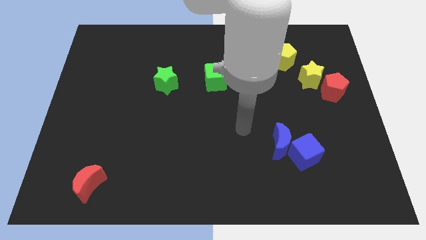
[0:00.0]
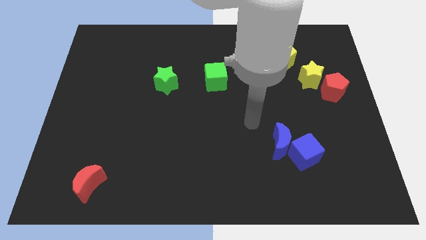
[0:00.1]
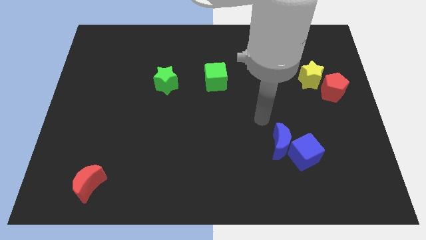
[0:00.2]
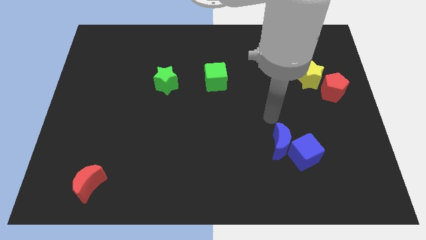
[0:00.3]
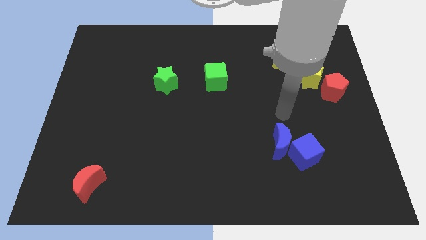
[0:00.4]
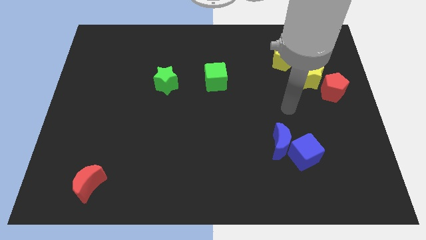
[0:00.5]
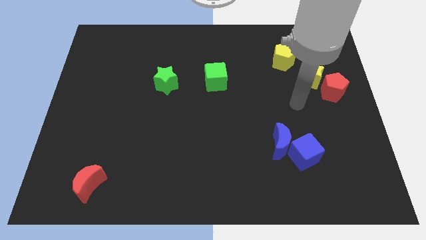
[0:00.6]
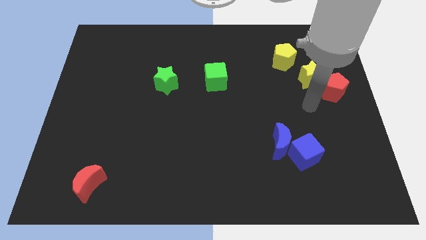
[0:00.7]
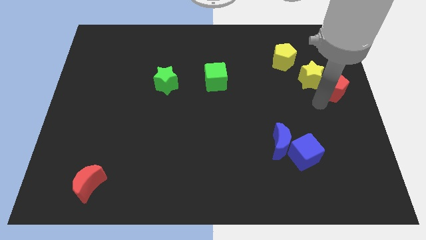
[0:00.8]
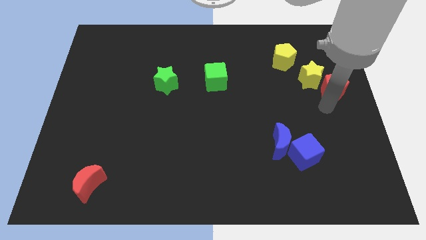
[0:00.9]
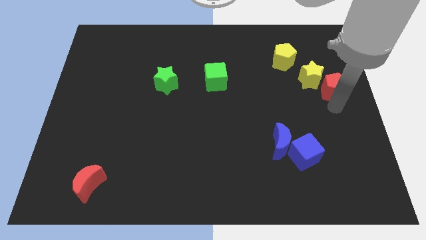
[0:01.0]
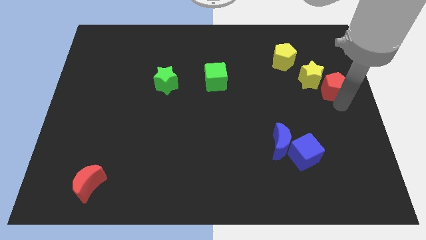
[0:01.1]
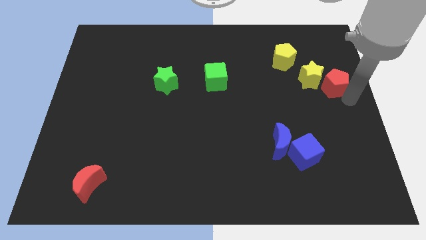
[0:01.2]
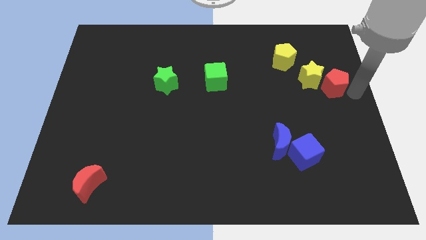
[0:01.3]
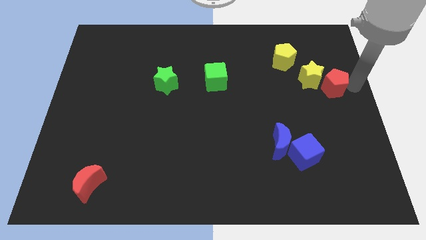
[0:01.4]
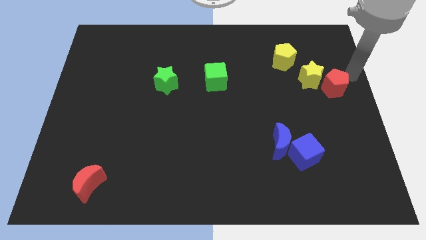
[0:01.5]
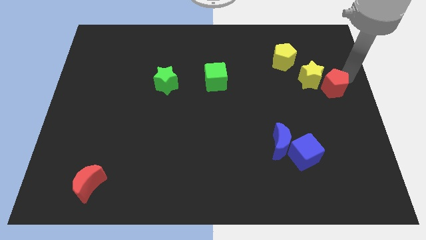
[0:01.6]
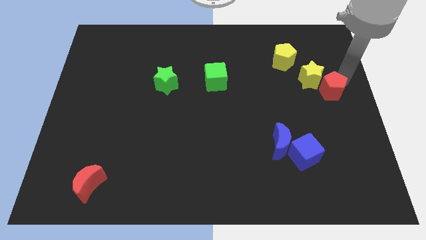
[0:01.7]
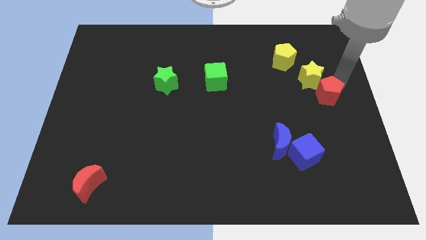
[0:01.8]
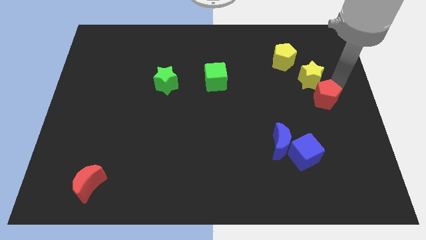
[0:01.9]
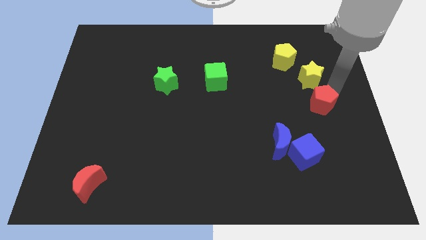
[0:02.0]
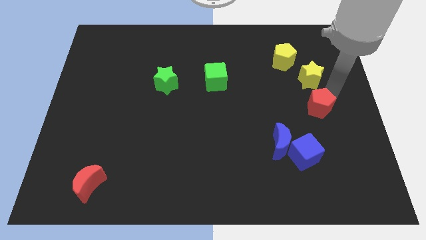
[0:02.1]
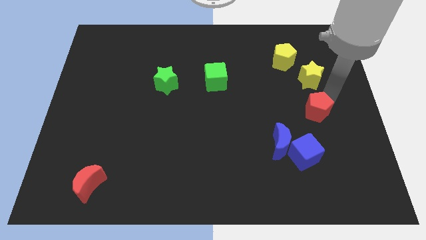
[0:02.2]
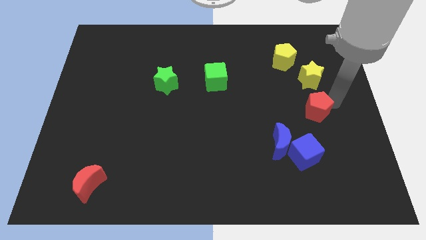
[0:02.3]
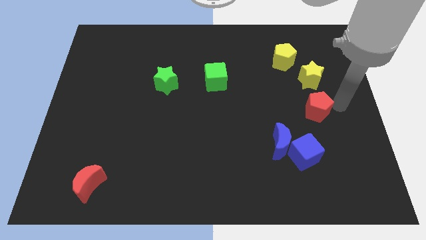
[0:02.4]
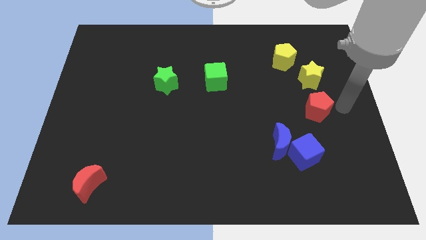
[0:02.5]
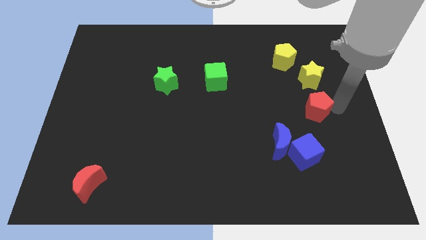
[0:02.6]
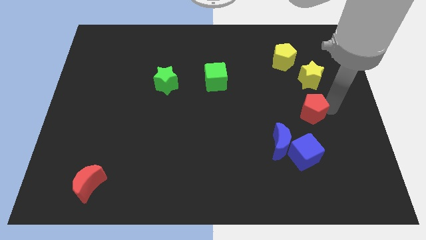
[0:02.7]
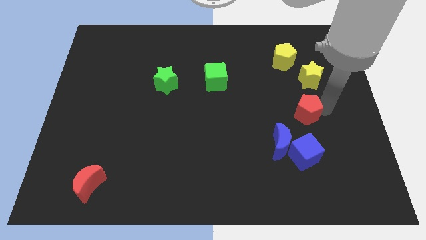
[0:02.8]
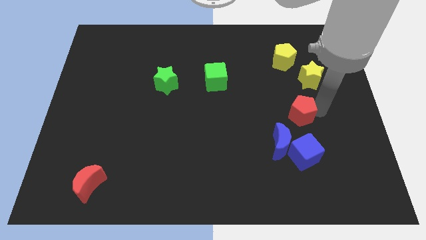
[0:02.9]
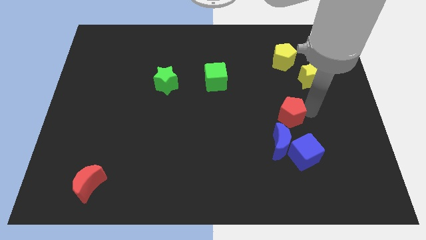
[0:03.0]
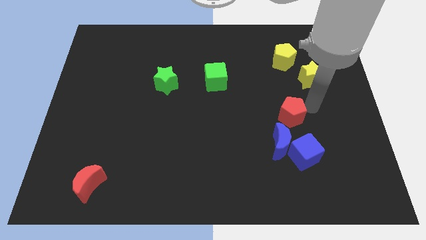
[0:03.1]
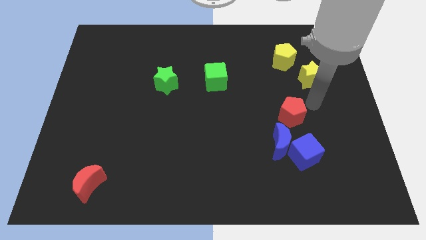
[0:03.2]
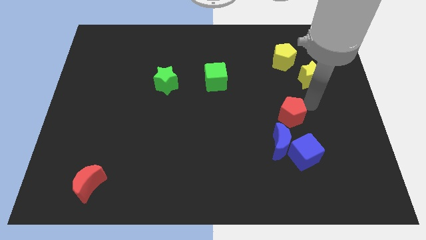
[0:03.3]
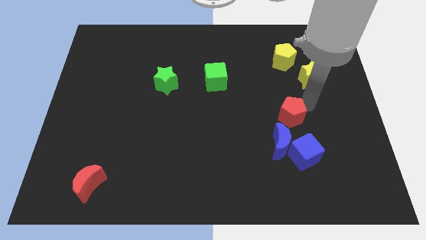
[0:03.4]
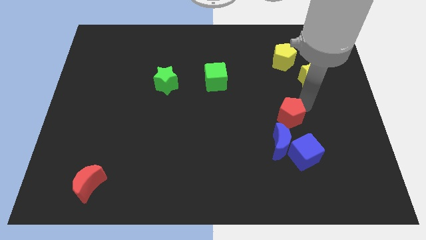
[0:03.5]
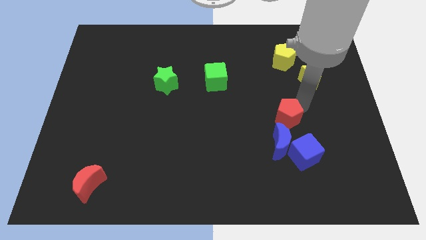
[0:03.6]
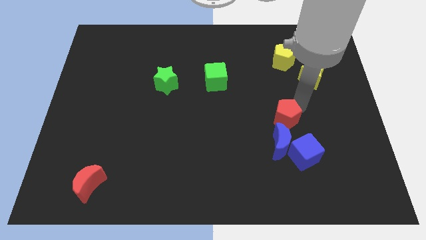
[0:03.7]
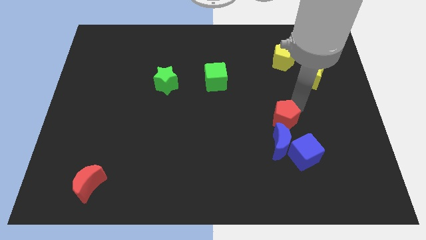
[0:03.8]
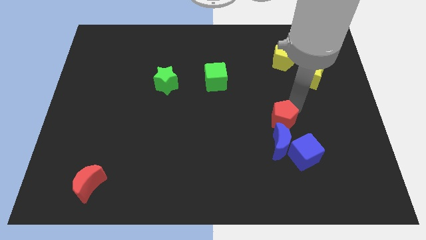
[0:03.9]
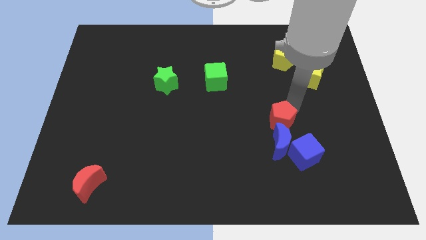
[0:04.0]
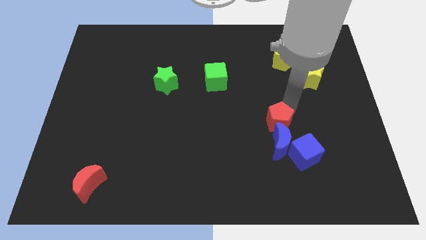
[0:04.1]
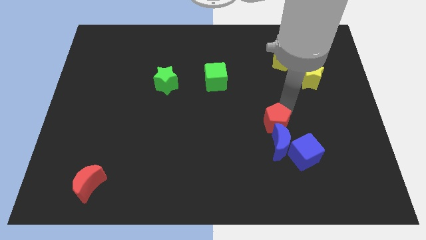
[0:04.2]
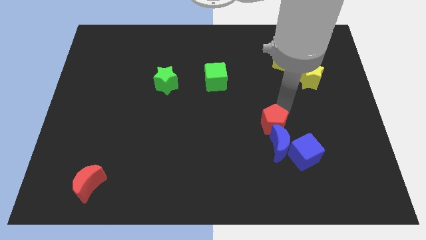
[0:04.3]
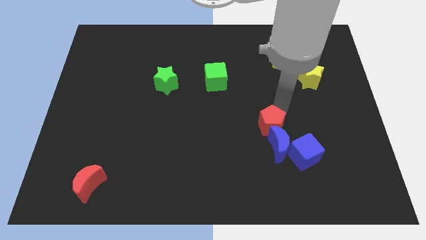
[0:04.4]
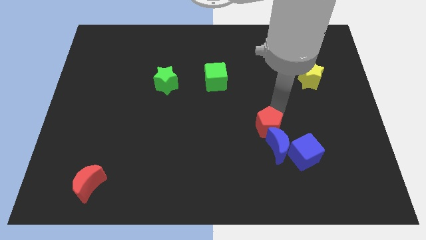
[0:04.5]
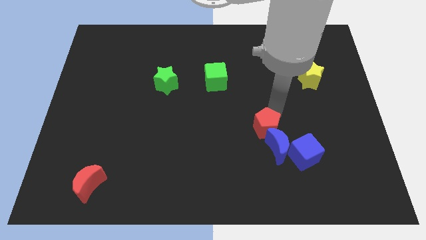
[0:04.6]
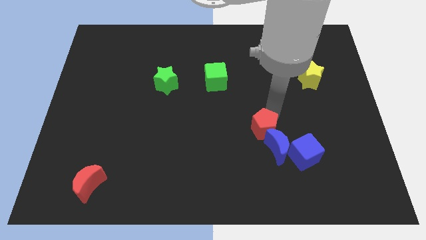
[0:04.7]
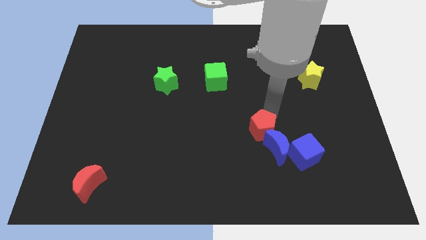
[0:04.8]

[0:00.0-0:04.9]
push the red pentagon diagonally down and to the left

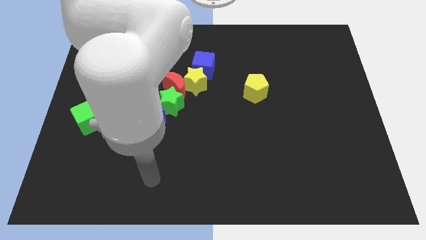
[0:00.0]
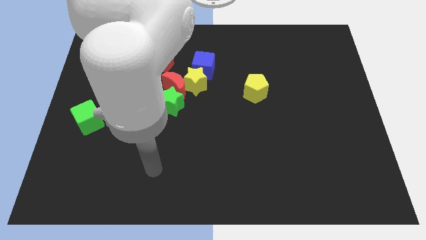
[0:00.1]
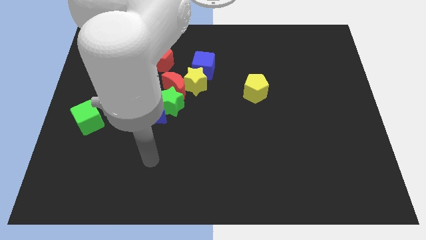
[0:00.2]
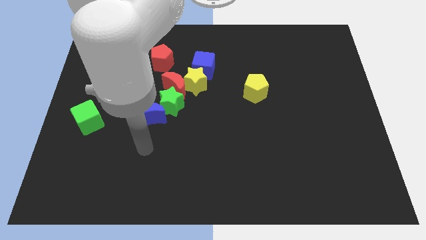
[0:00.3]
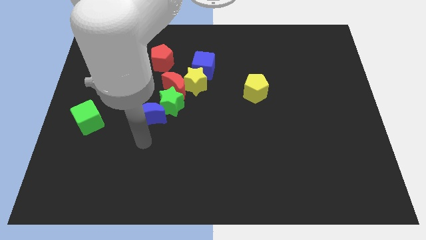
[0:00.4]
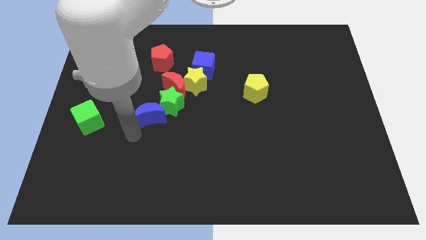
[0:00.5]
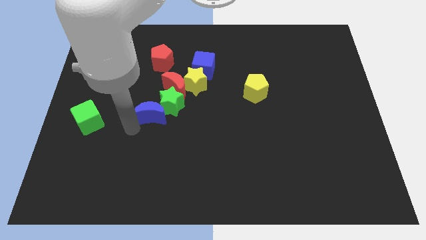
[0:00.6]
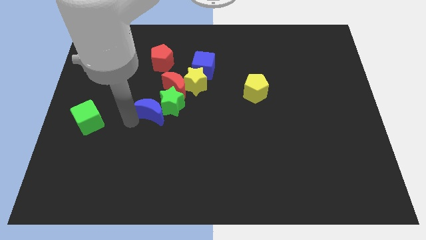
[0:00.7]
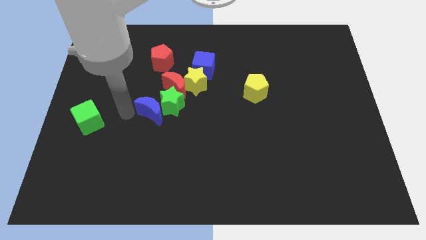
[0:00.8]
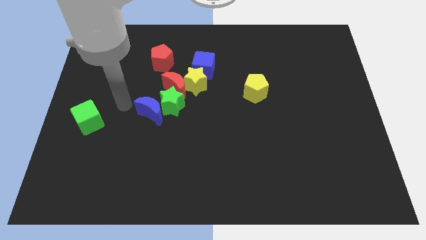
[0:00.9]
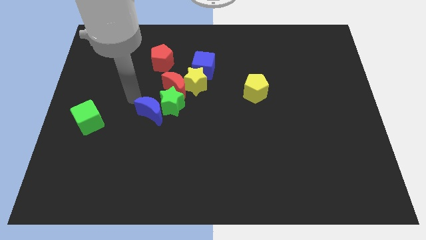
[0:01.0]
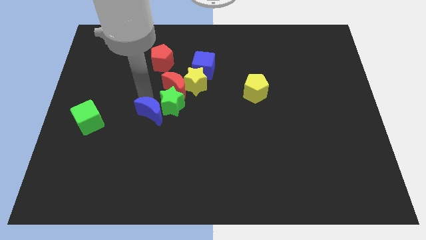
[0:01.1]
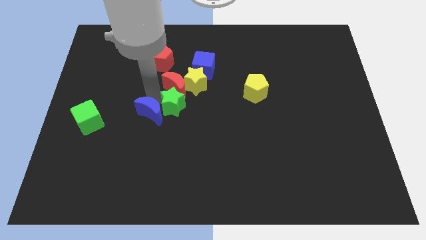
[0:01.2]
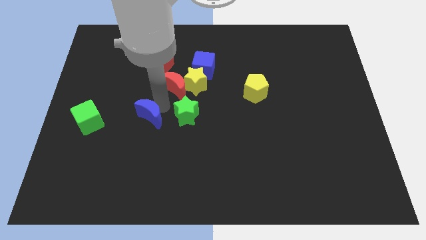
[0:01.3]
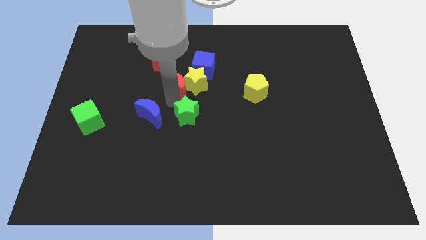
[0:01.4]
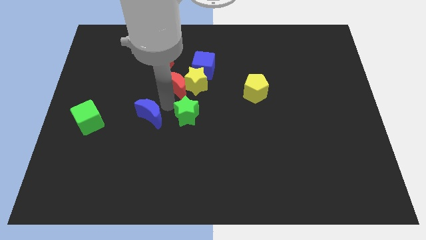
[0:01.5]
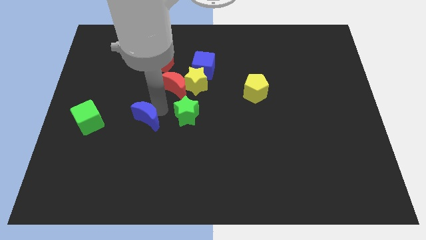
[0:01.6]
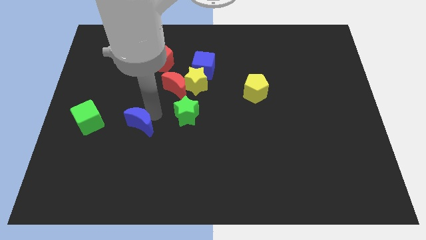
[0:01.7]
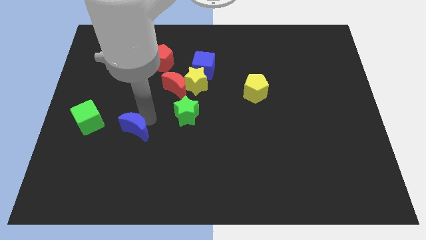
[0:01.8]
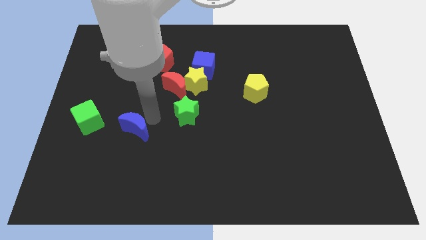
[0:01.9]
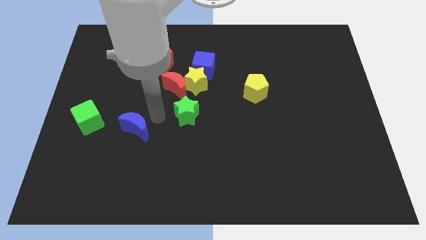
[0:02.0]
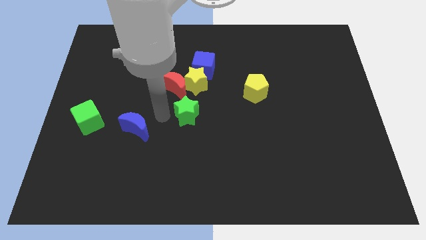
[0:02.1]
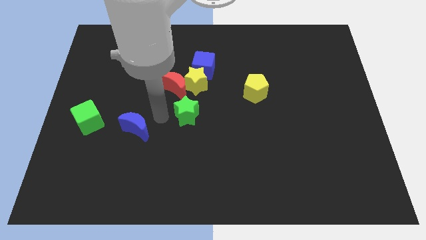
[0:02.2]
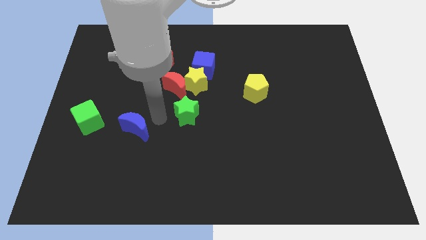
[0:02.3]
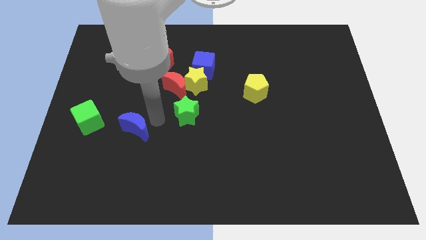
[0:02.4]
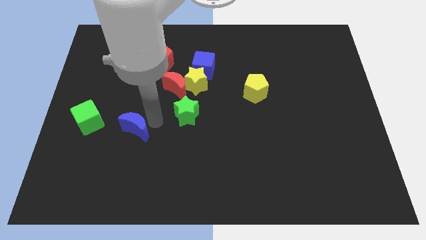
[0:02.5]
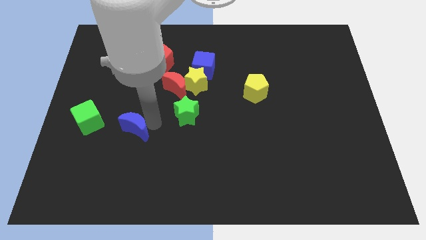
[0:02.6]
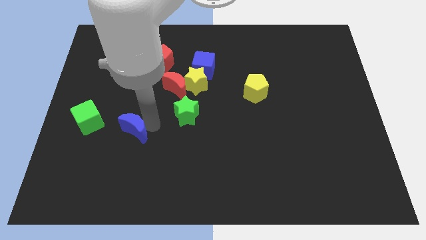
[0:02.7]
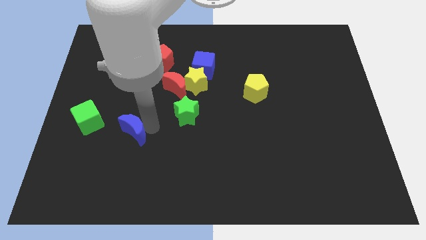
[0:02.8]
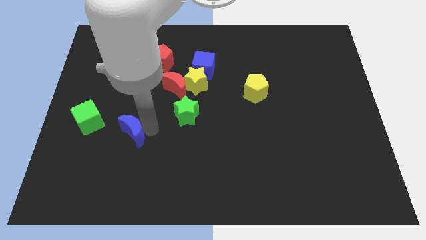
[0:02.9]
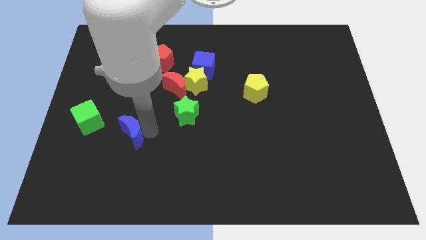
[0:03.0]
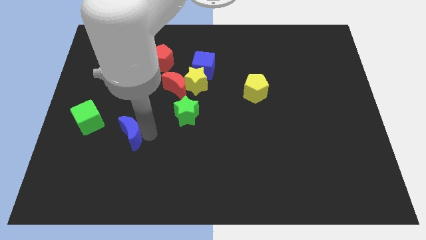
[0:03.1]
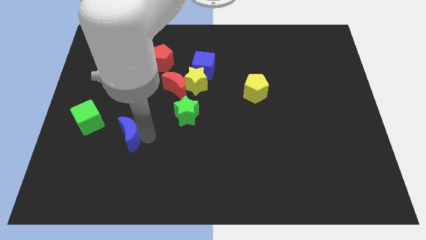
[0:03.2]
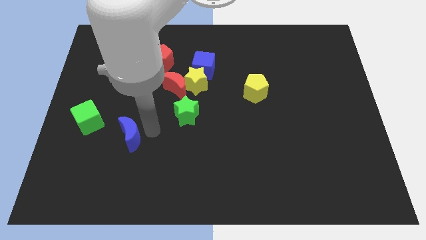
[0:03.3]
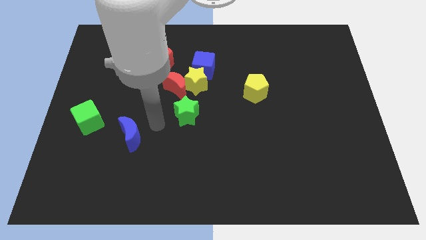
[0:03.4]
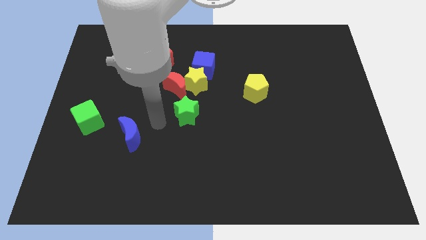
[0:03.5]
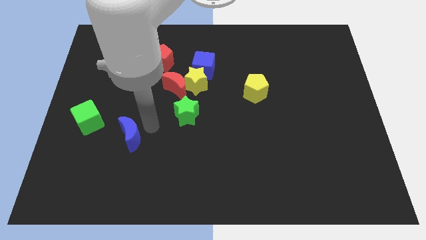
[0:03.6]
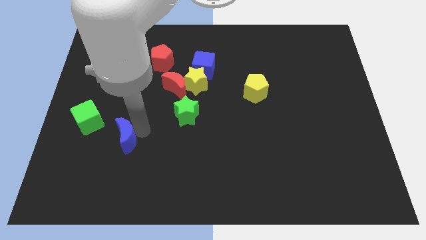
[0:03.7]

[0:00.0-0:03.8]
slightly push the blue moon down and then left
